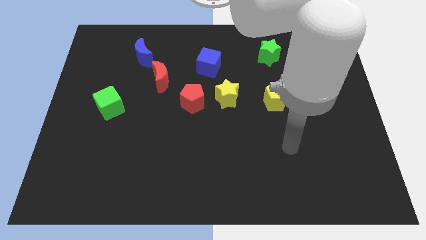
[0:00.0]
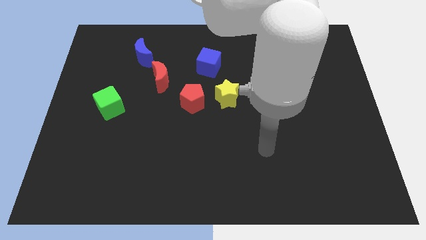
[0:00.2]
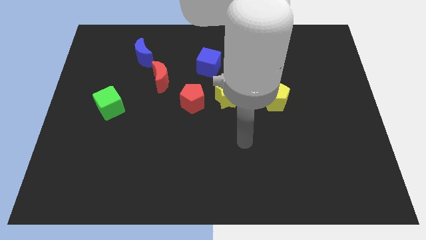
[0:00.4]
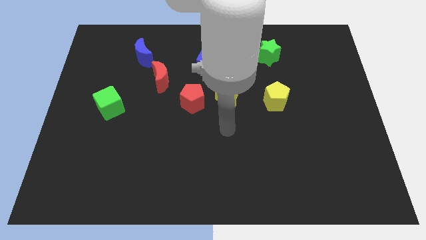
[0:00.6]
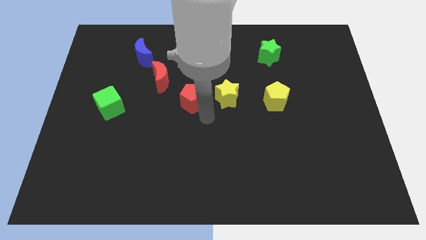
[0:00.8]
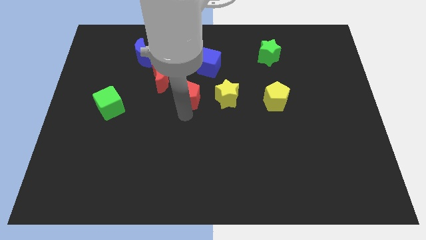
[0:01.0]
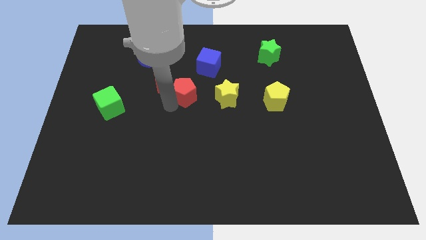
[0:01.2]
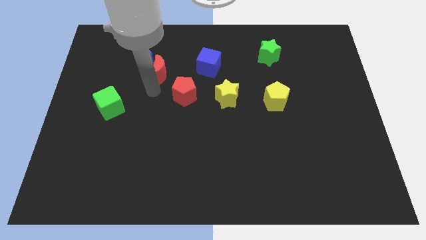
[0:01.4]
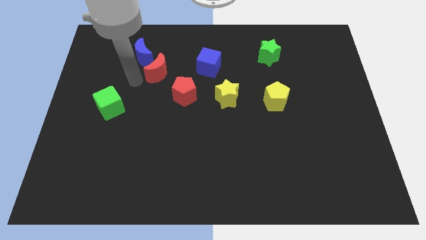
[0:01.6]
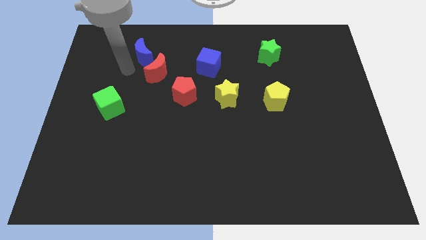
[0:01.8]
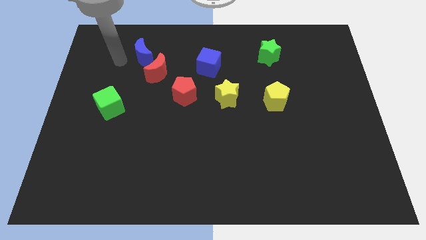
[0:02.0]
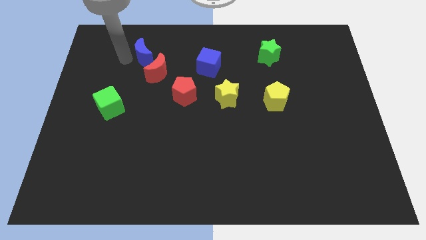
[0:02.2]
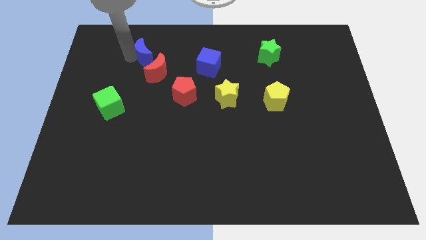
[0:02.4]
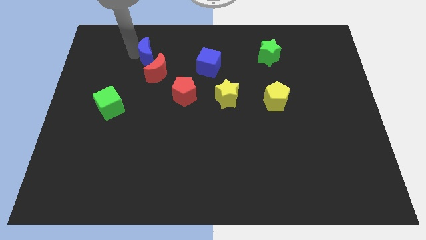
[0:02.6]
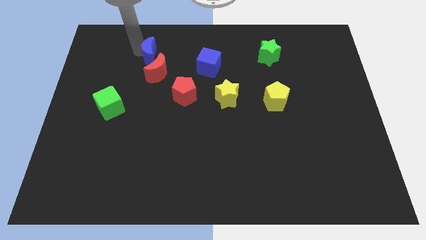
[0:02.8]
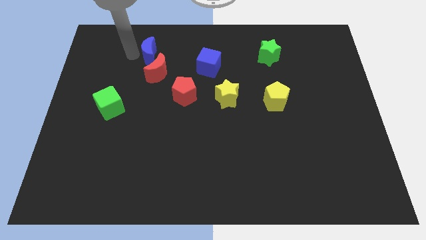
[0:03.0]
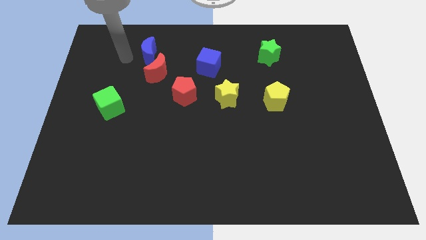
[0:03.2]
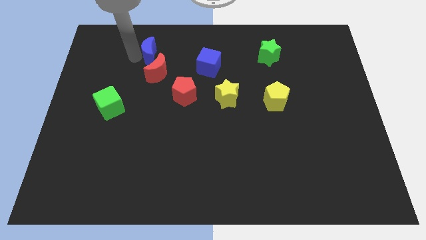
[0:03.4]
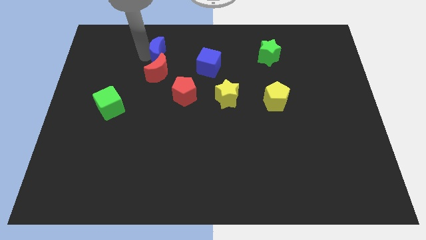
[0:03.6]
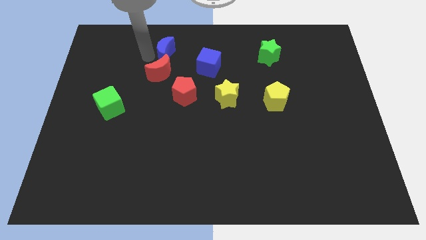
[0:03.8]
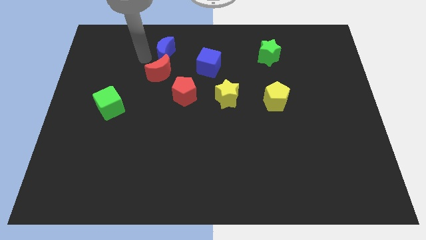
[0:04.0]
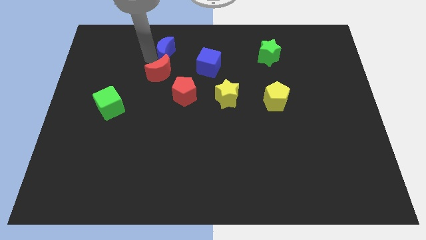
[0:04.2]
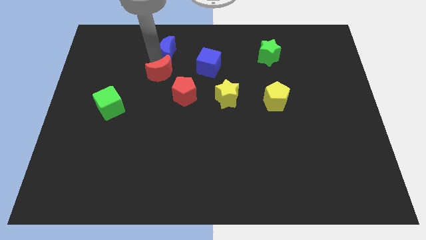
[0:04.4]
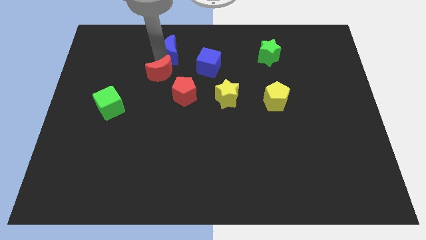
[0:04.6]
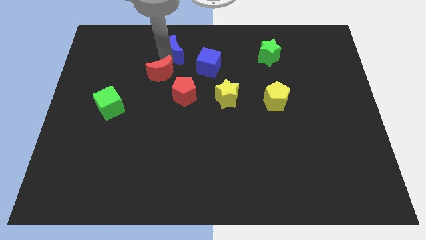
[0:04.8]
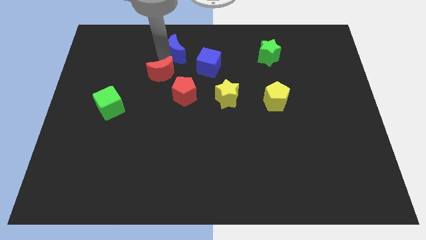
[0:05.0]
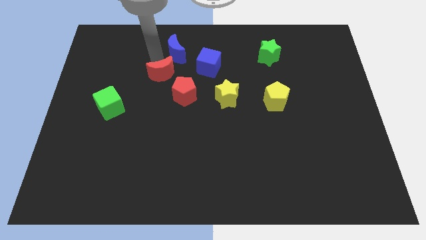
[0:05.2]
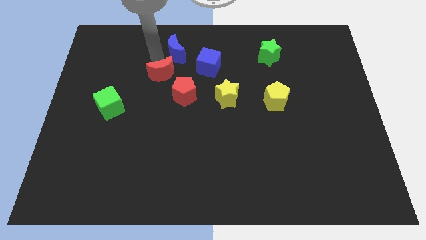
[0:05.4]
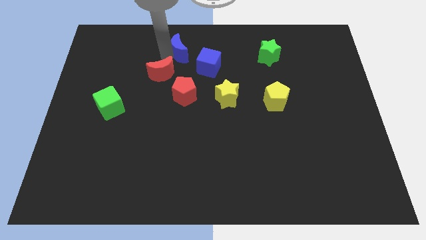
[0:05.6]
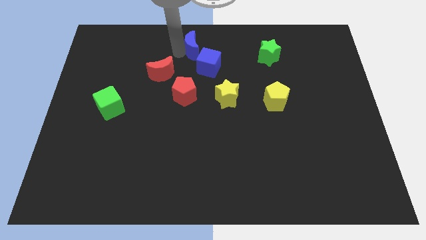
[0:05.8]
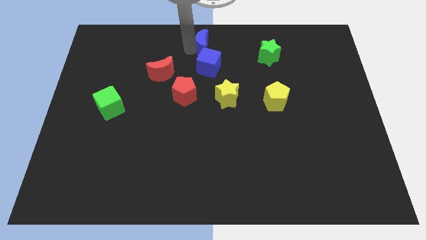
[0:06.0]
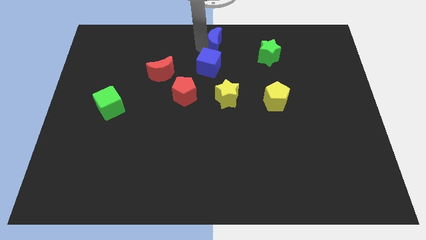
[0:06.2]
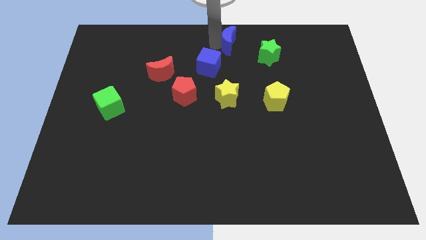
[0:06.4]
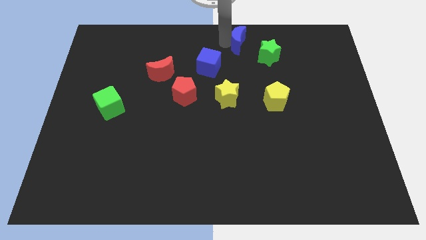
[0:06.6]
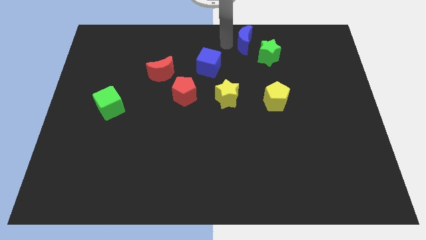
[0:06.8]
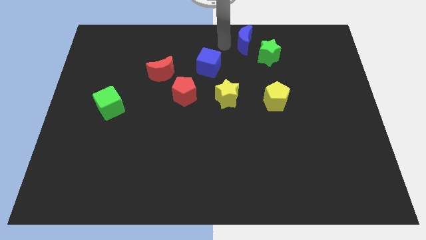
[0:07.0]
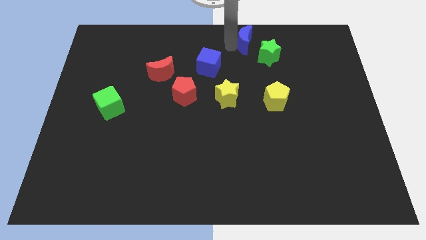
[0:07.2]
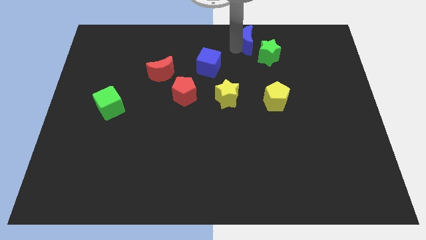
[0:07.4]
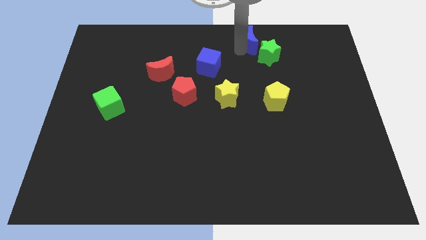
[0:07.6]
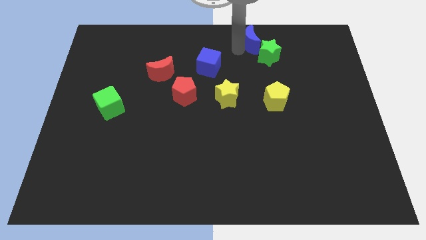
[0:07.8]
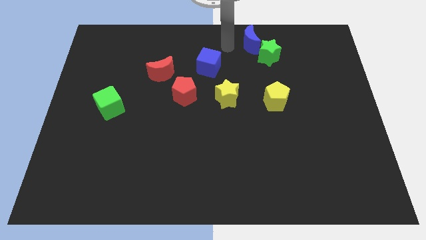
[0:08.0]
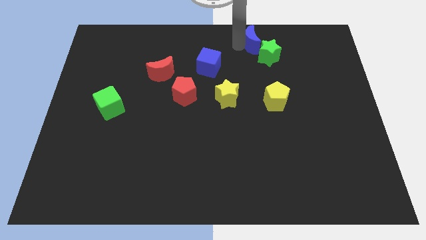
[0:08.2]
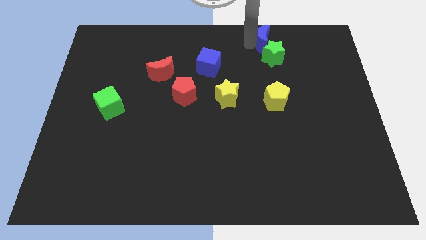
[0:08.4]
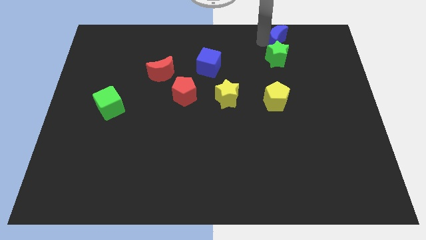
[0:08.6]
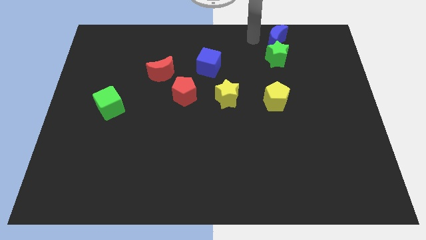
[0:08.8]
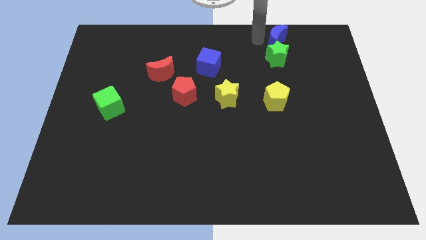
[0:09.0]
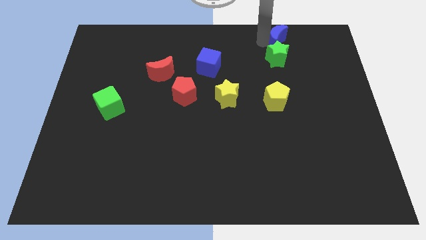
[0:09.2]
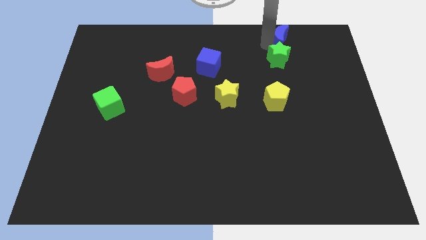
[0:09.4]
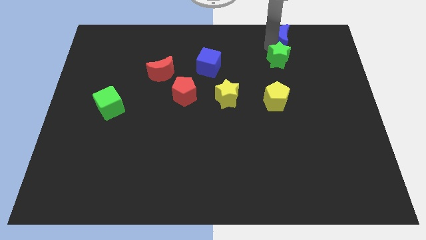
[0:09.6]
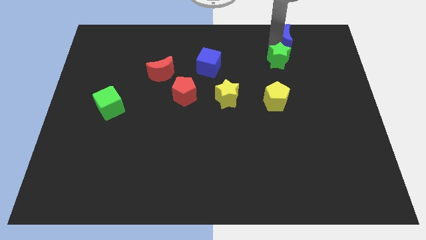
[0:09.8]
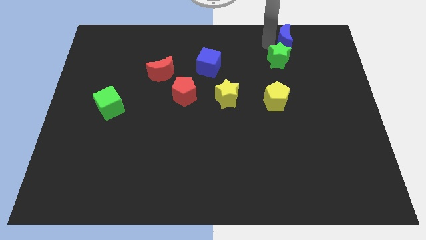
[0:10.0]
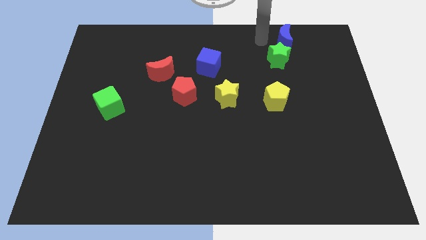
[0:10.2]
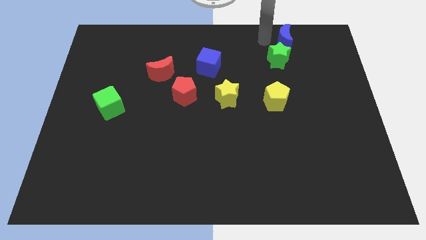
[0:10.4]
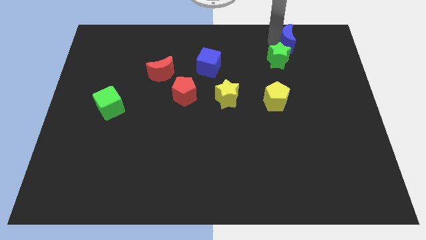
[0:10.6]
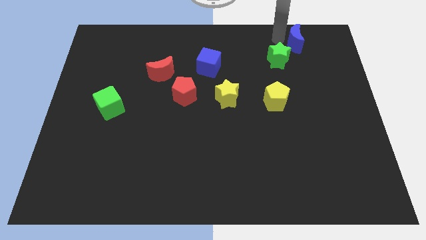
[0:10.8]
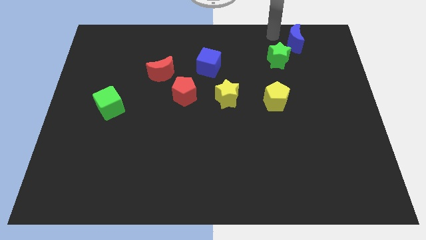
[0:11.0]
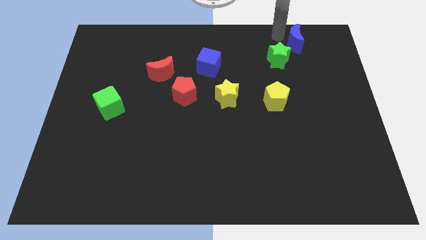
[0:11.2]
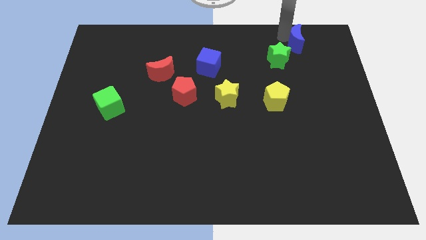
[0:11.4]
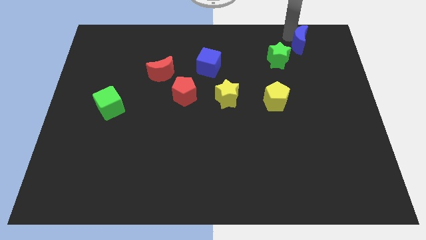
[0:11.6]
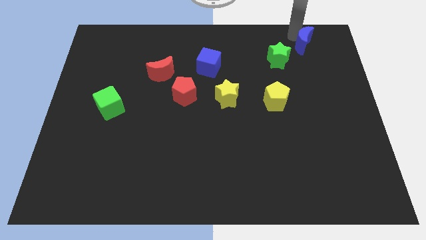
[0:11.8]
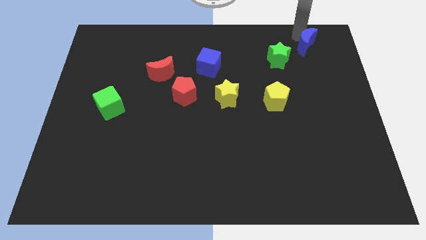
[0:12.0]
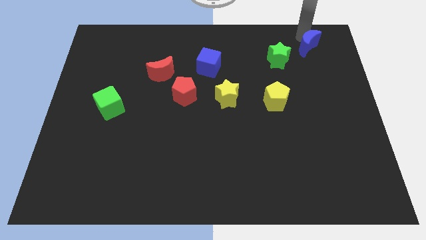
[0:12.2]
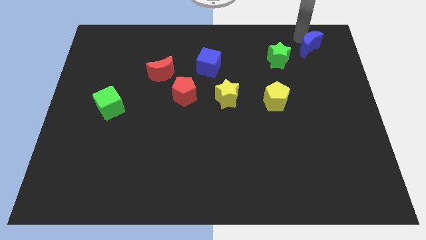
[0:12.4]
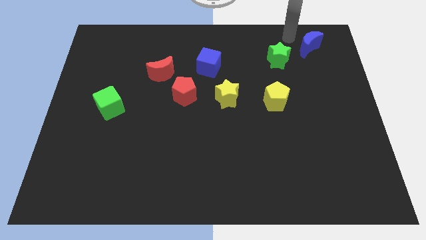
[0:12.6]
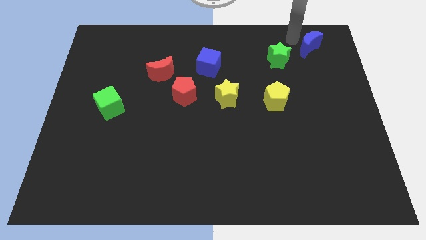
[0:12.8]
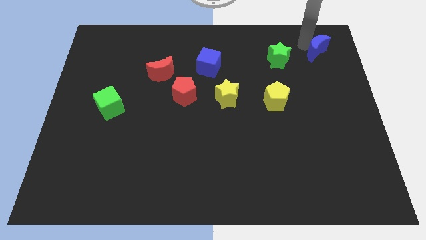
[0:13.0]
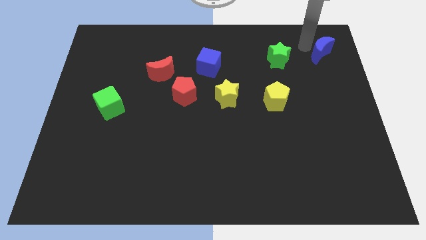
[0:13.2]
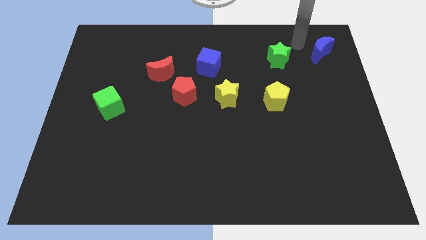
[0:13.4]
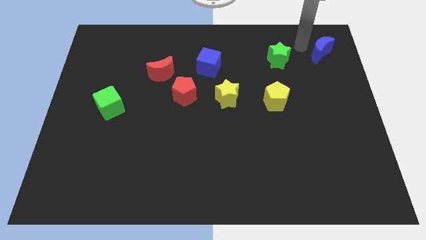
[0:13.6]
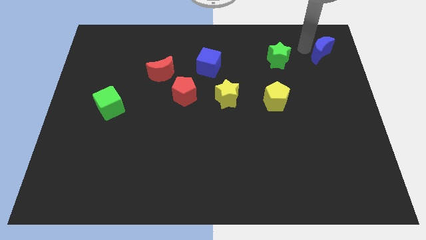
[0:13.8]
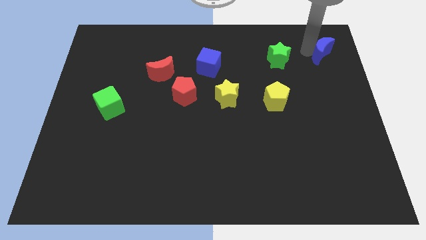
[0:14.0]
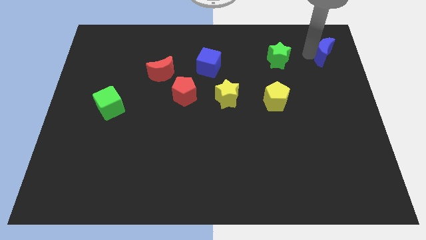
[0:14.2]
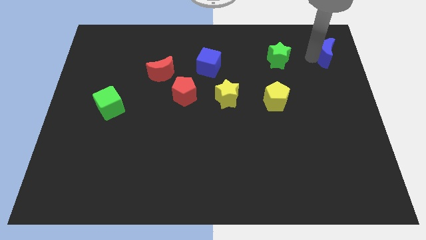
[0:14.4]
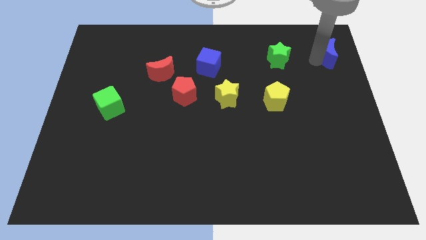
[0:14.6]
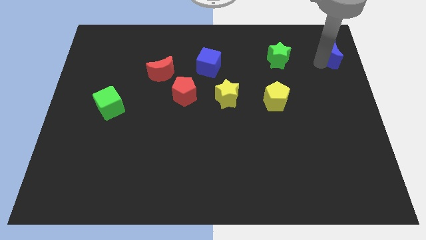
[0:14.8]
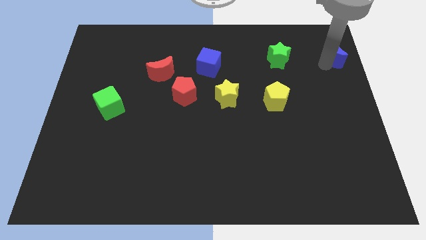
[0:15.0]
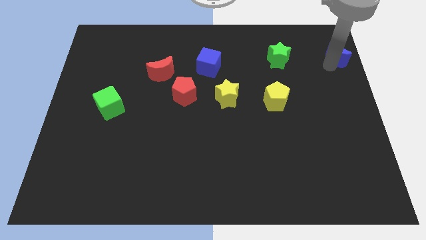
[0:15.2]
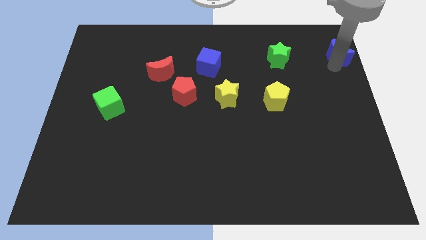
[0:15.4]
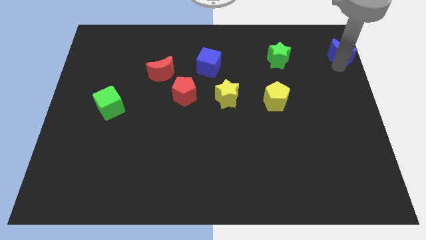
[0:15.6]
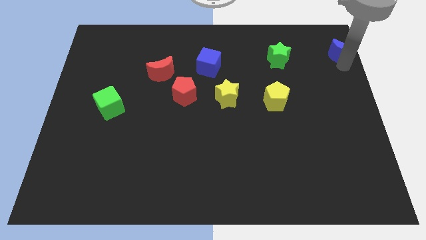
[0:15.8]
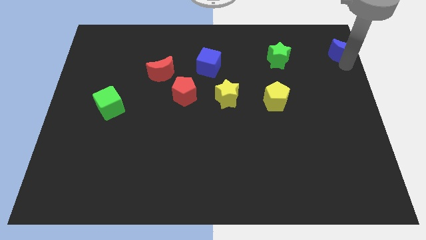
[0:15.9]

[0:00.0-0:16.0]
move the blue moon to the top right of the board
